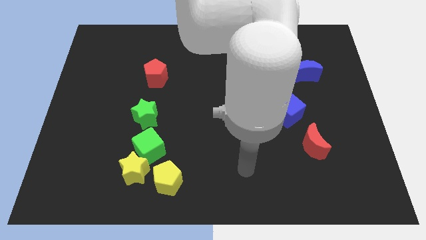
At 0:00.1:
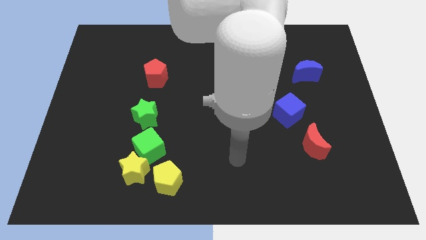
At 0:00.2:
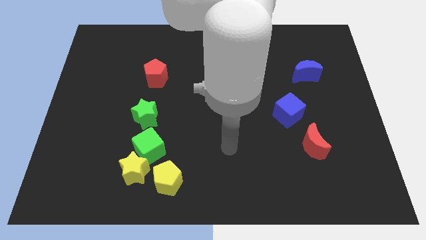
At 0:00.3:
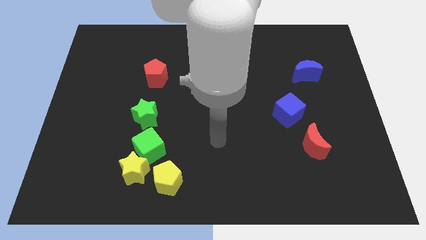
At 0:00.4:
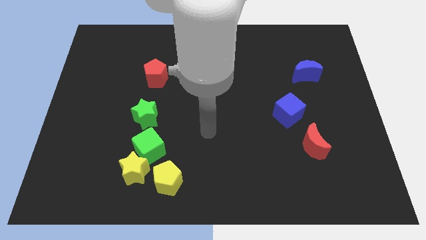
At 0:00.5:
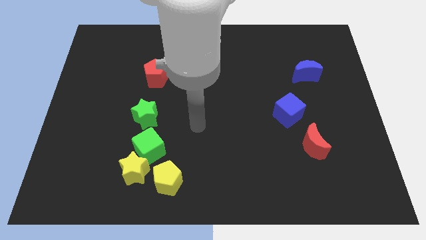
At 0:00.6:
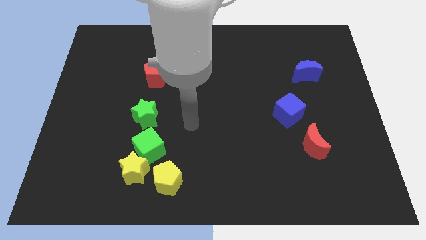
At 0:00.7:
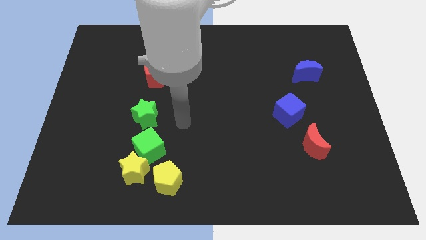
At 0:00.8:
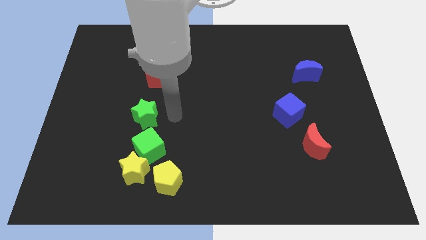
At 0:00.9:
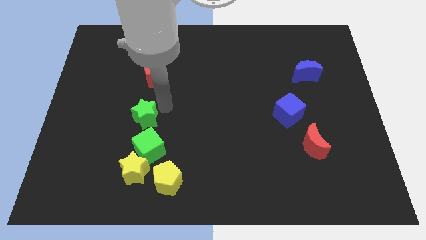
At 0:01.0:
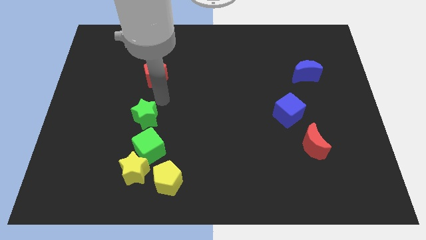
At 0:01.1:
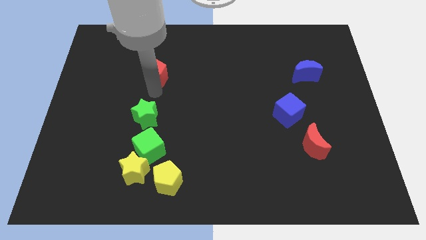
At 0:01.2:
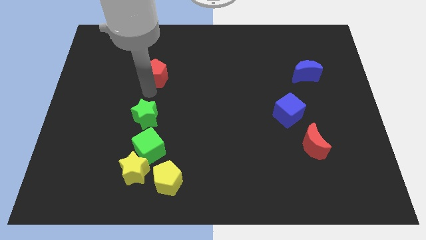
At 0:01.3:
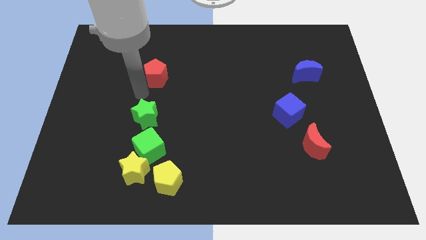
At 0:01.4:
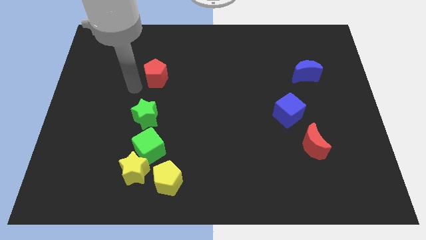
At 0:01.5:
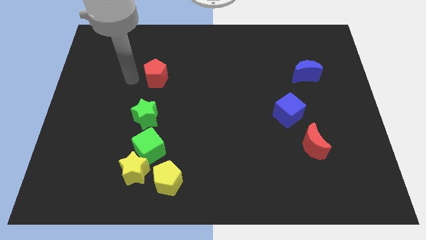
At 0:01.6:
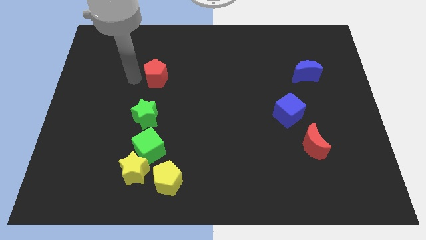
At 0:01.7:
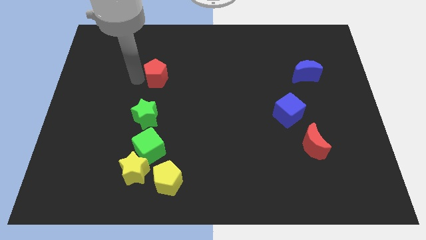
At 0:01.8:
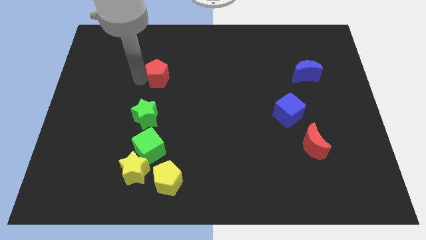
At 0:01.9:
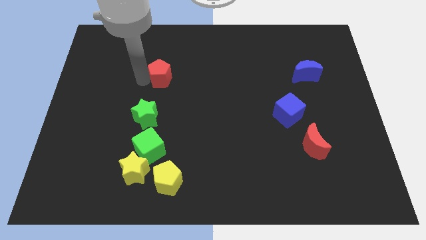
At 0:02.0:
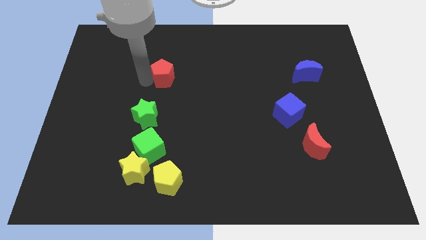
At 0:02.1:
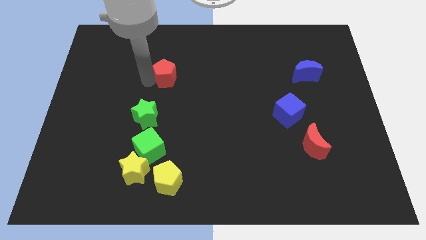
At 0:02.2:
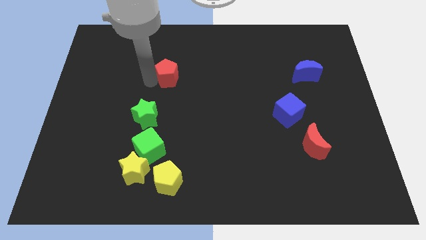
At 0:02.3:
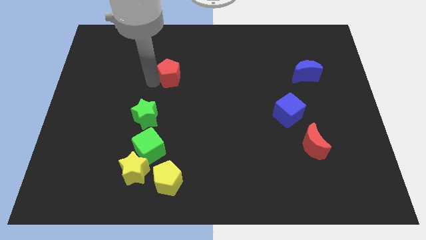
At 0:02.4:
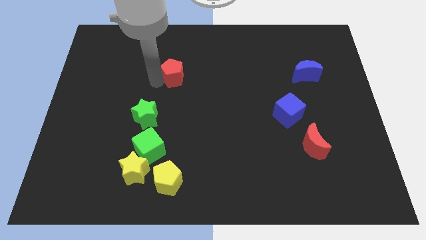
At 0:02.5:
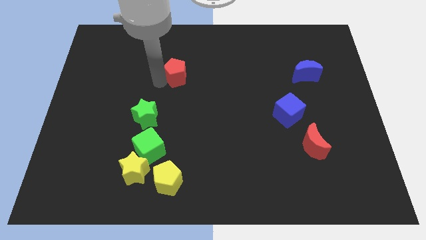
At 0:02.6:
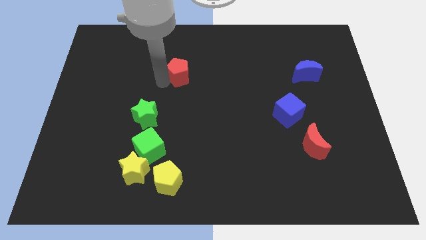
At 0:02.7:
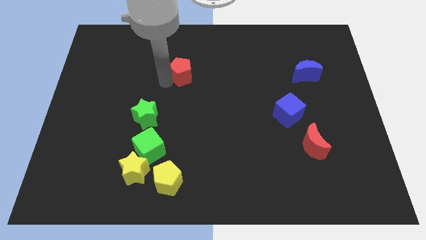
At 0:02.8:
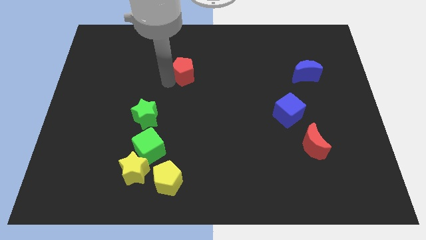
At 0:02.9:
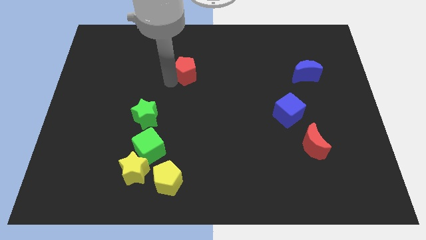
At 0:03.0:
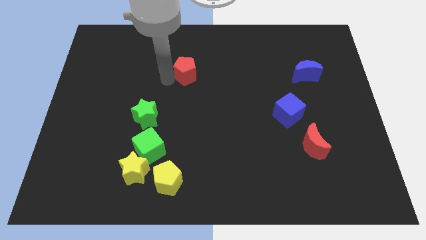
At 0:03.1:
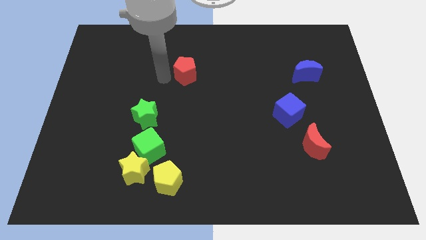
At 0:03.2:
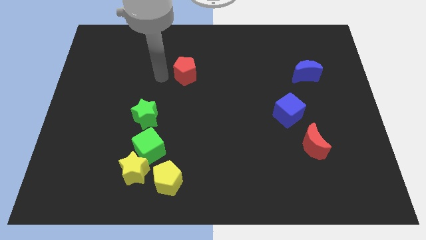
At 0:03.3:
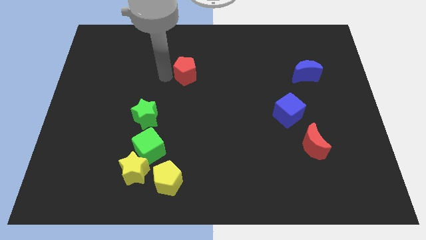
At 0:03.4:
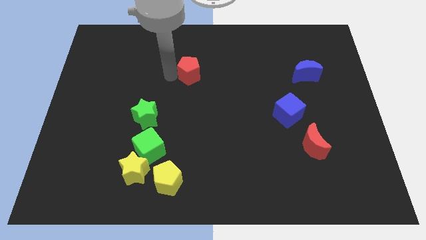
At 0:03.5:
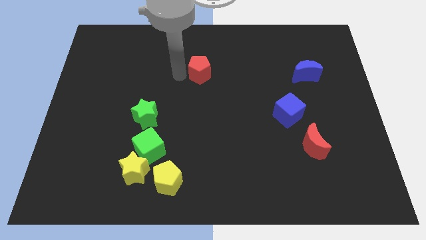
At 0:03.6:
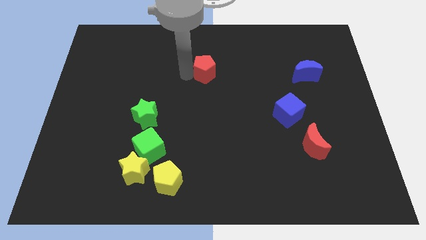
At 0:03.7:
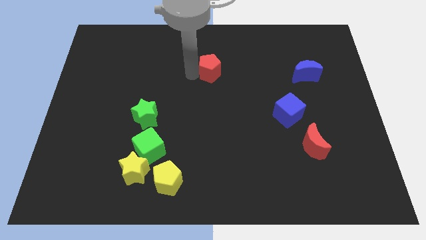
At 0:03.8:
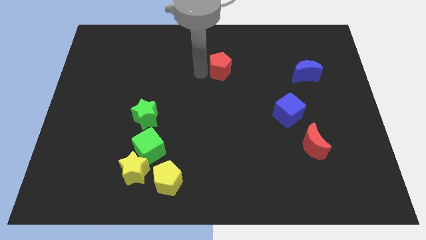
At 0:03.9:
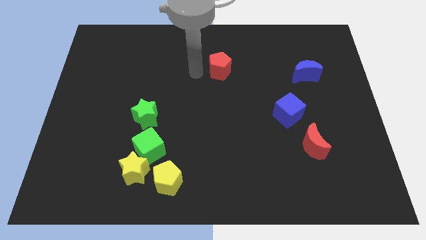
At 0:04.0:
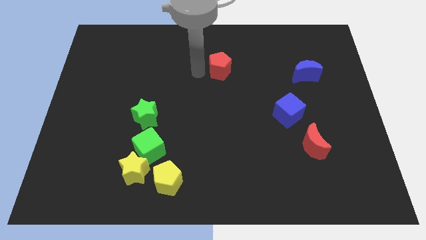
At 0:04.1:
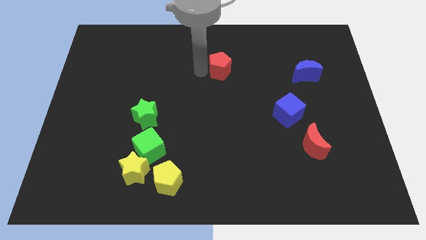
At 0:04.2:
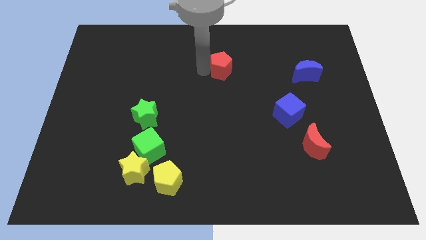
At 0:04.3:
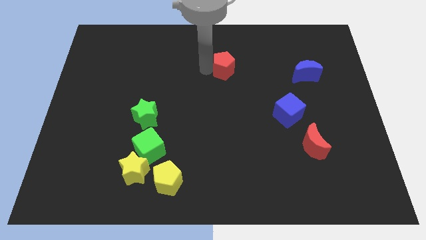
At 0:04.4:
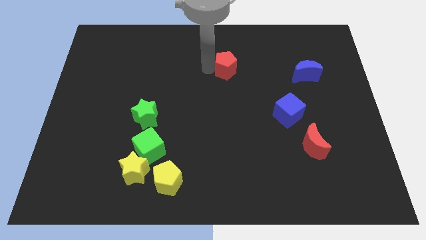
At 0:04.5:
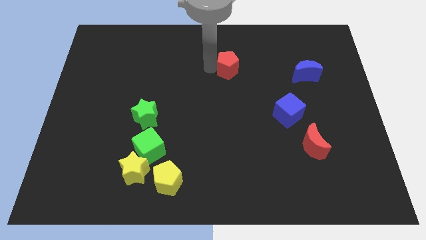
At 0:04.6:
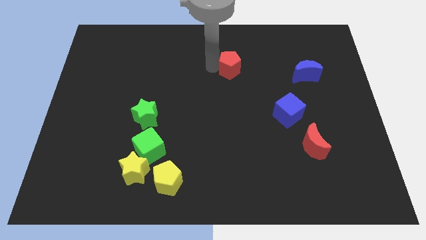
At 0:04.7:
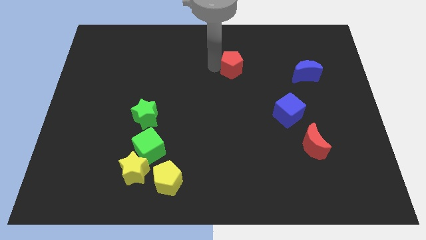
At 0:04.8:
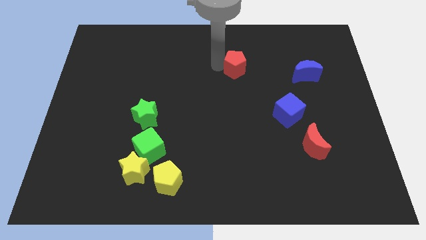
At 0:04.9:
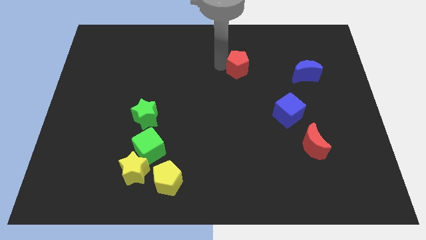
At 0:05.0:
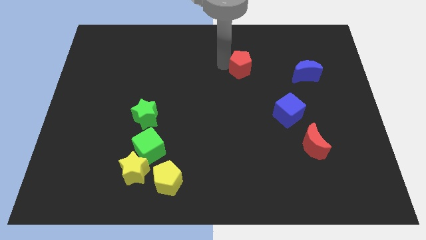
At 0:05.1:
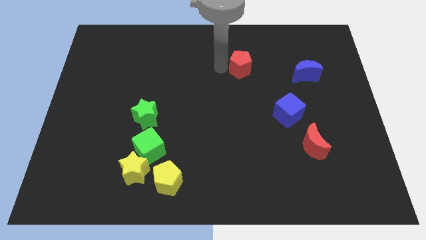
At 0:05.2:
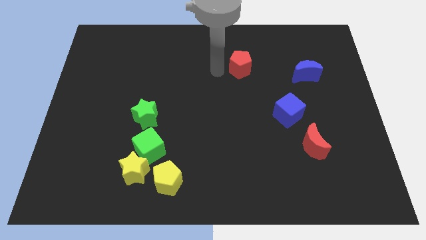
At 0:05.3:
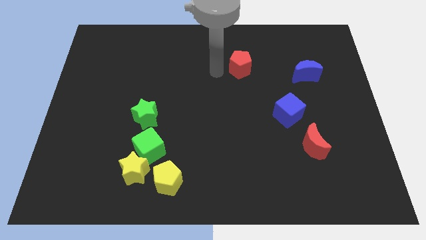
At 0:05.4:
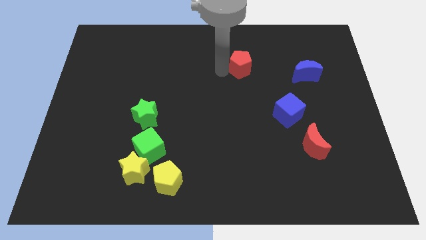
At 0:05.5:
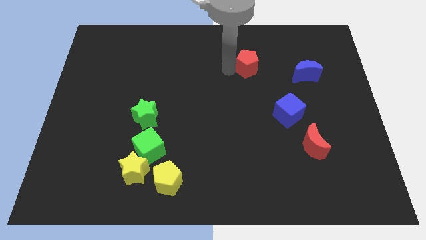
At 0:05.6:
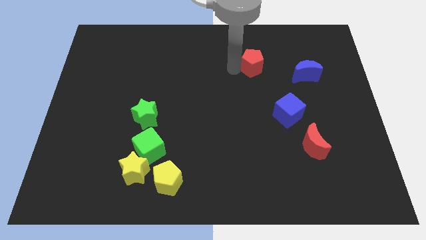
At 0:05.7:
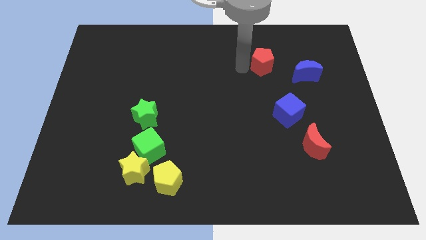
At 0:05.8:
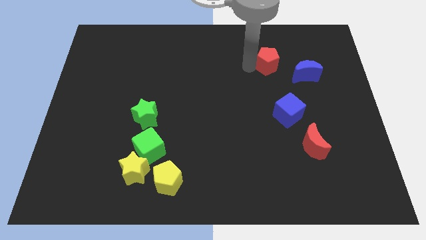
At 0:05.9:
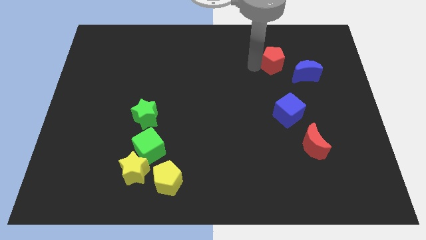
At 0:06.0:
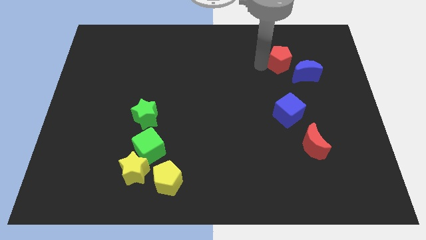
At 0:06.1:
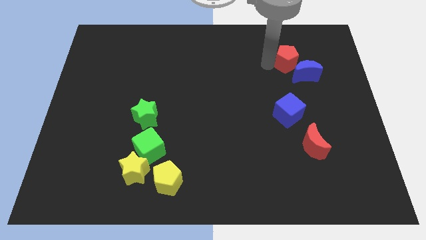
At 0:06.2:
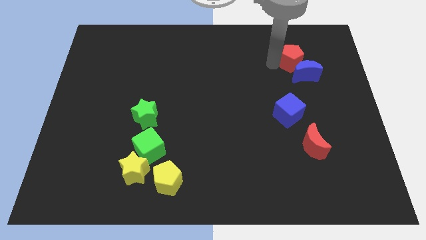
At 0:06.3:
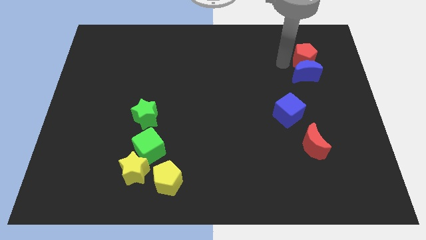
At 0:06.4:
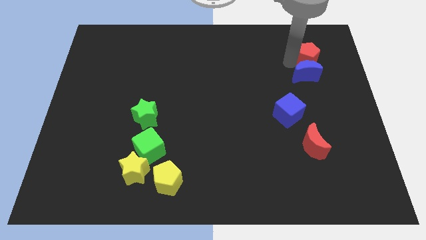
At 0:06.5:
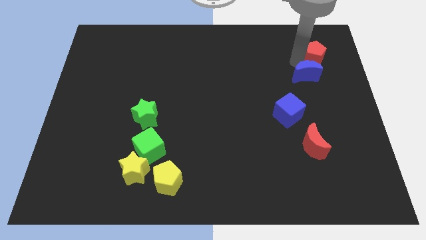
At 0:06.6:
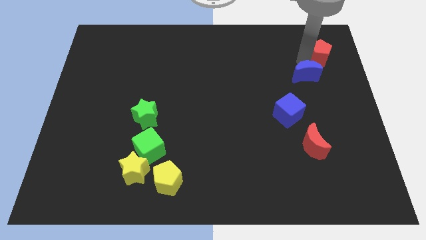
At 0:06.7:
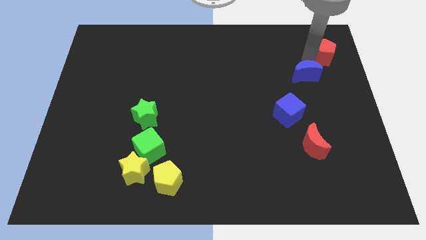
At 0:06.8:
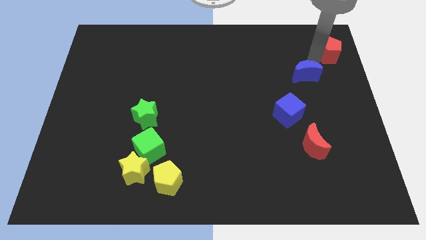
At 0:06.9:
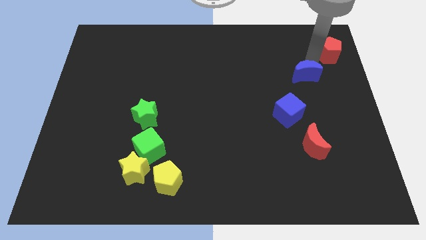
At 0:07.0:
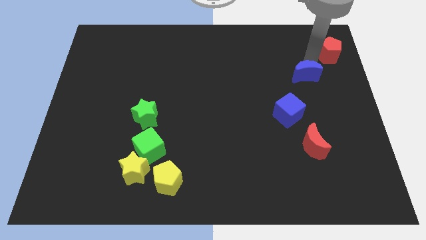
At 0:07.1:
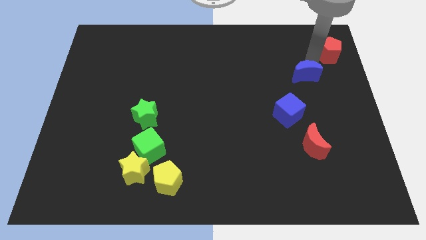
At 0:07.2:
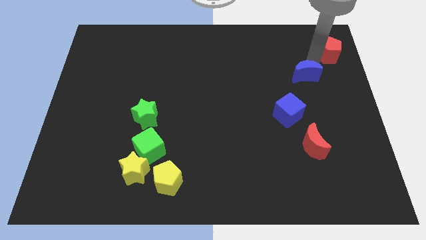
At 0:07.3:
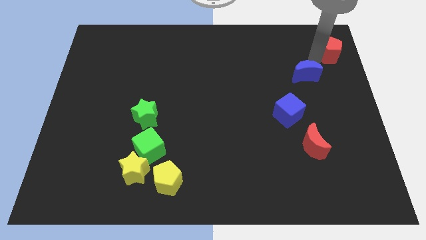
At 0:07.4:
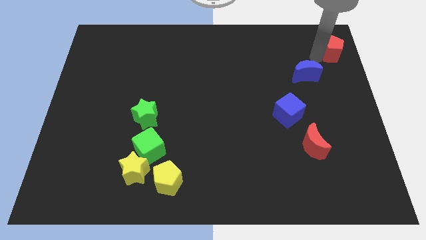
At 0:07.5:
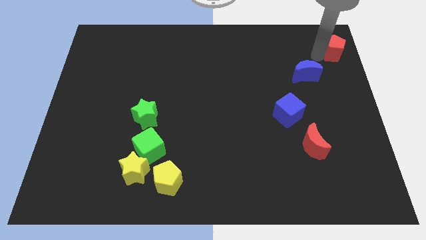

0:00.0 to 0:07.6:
push the red pentagon to the top right
